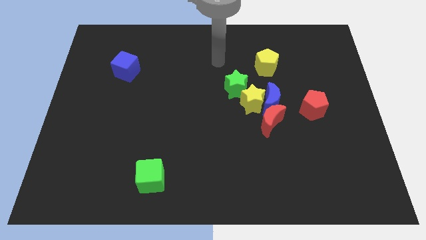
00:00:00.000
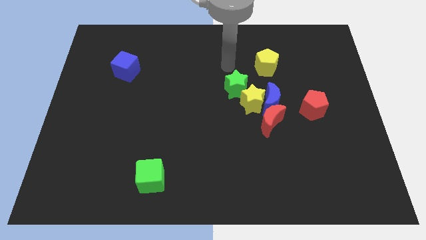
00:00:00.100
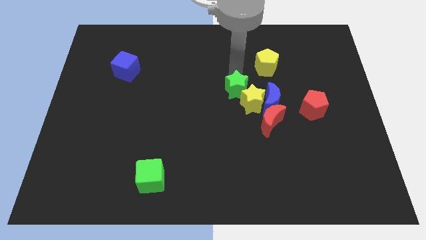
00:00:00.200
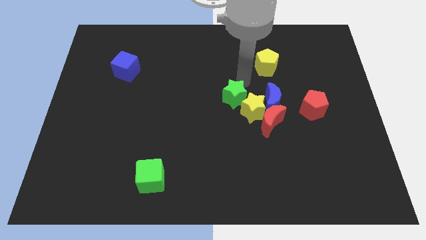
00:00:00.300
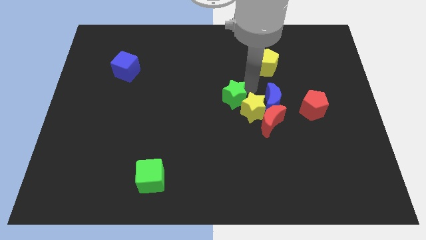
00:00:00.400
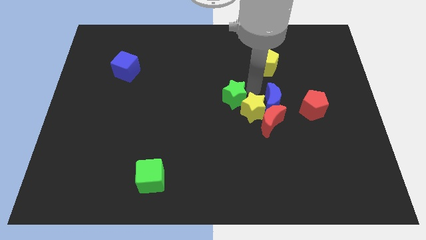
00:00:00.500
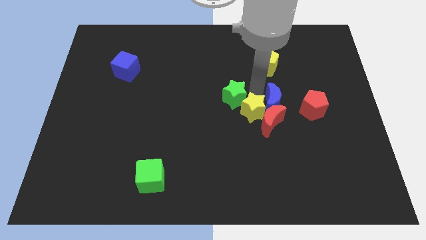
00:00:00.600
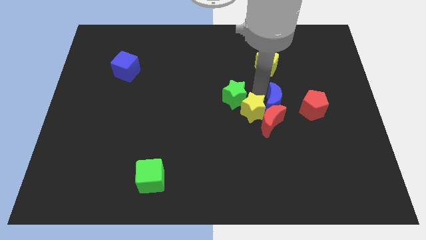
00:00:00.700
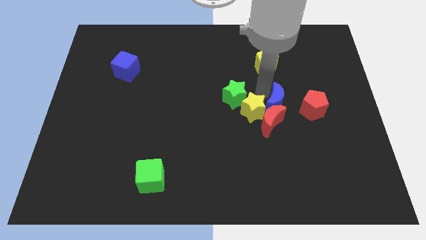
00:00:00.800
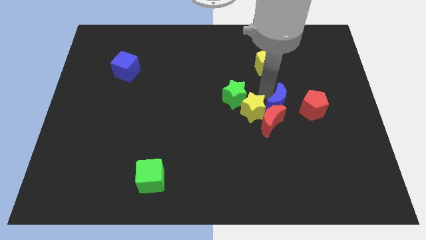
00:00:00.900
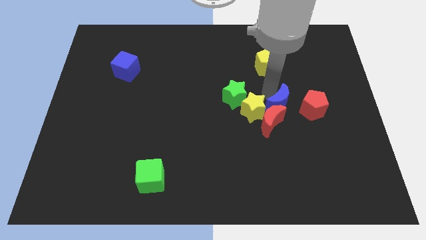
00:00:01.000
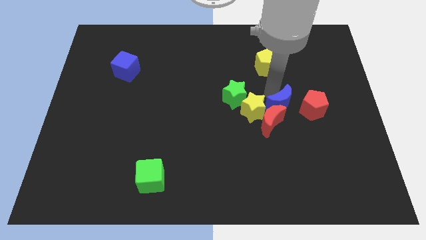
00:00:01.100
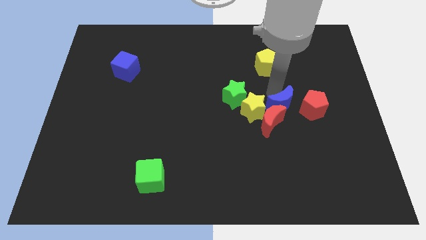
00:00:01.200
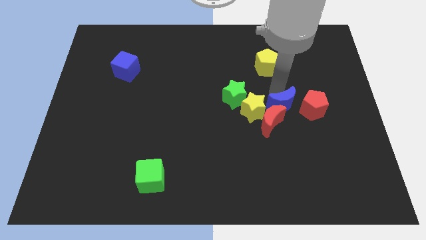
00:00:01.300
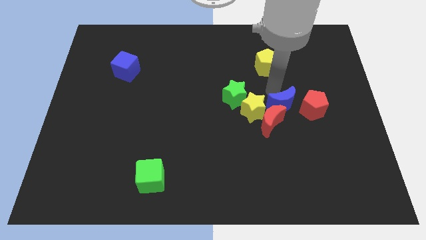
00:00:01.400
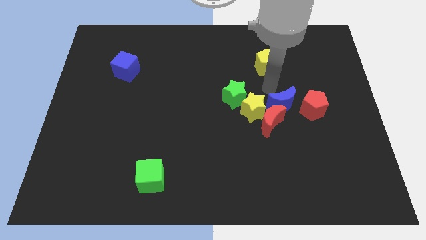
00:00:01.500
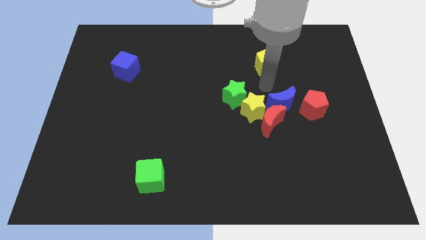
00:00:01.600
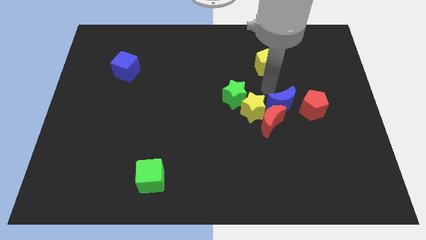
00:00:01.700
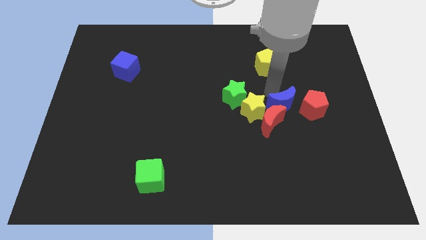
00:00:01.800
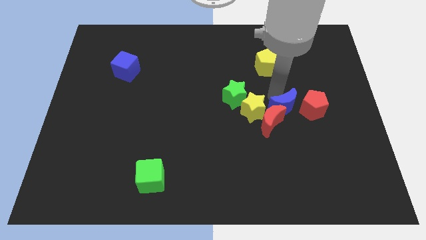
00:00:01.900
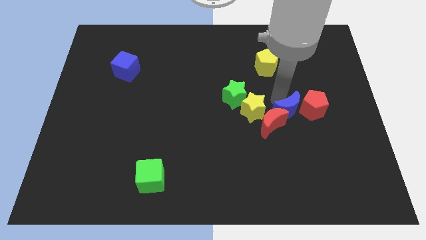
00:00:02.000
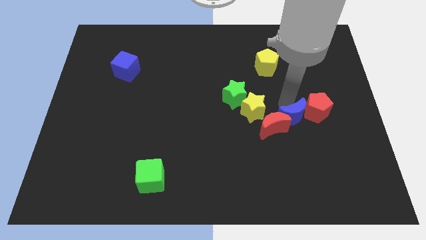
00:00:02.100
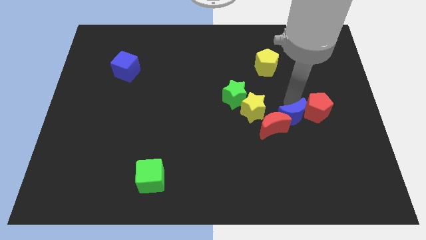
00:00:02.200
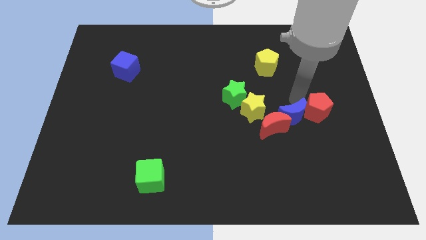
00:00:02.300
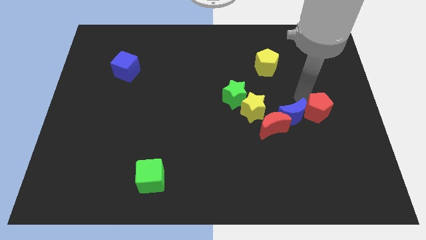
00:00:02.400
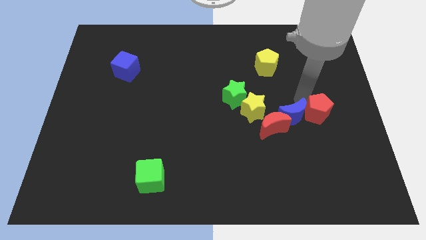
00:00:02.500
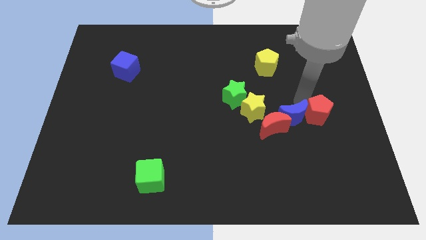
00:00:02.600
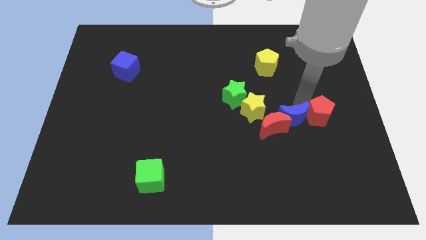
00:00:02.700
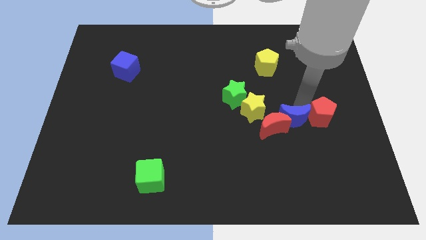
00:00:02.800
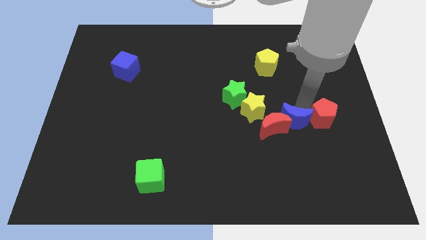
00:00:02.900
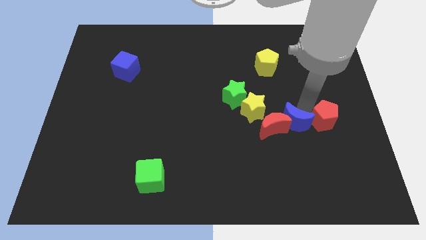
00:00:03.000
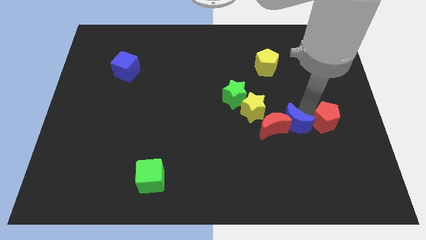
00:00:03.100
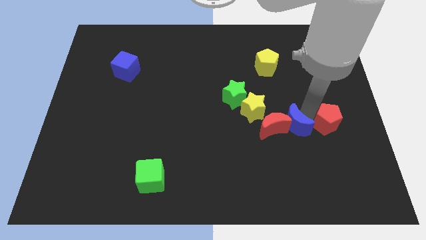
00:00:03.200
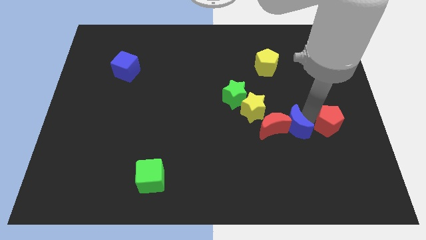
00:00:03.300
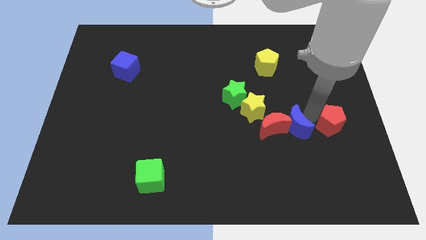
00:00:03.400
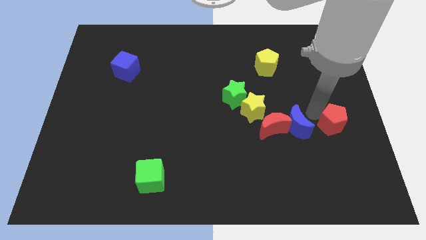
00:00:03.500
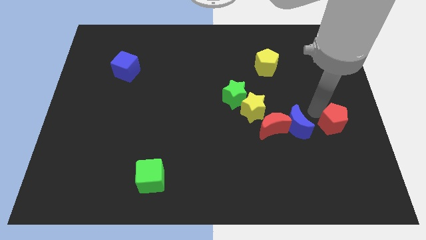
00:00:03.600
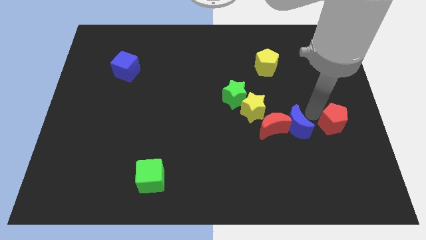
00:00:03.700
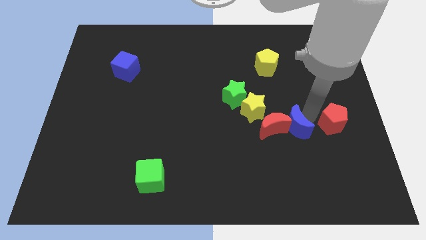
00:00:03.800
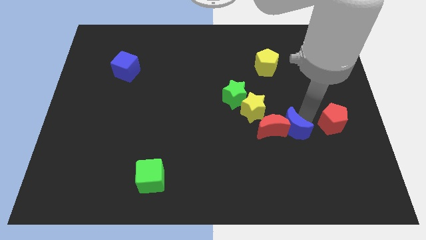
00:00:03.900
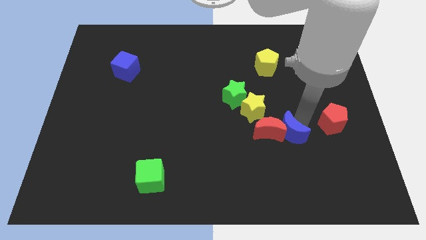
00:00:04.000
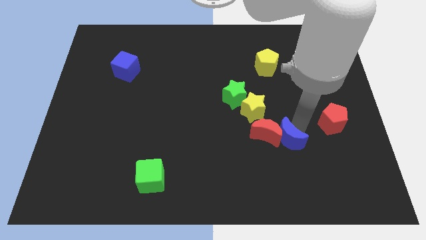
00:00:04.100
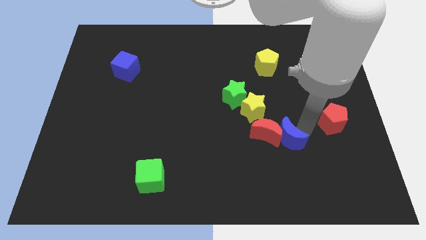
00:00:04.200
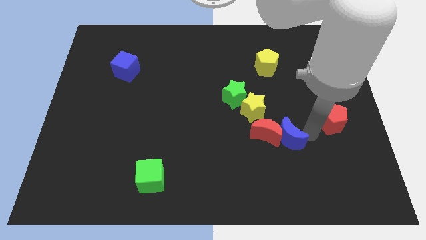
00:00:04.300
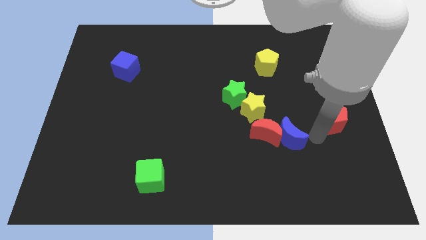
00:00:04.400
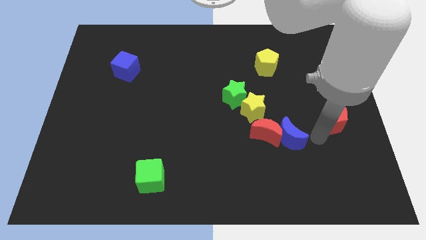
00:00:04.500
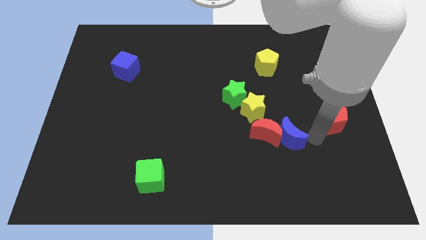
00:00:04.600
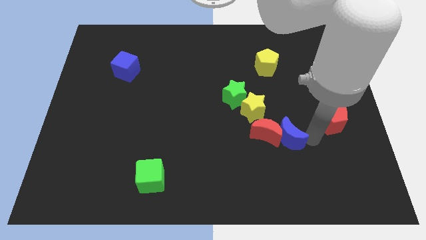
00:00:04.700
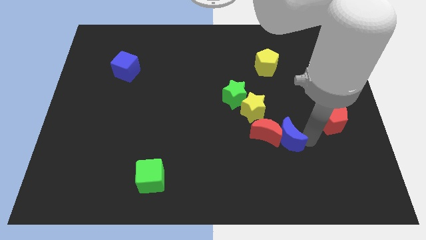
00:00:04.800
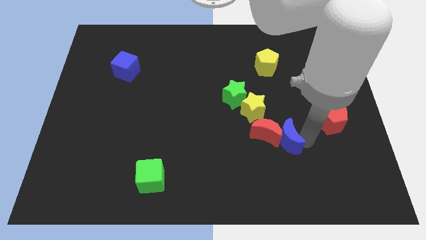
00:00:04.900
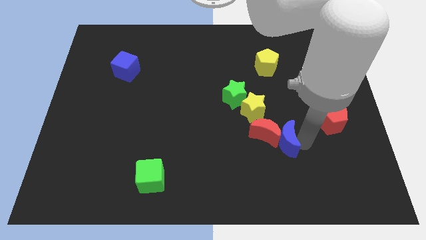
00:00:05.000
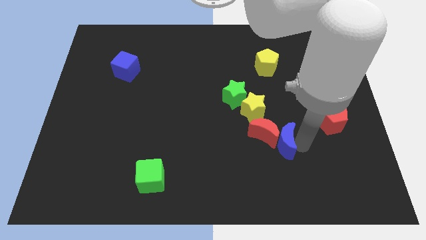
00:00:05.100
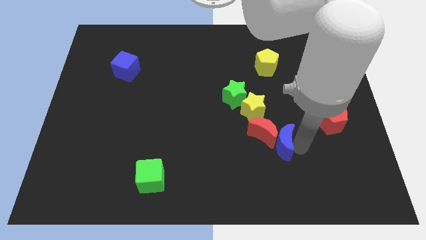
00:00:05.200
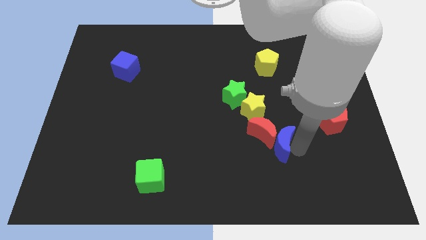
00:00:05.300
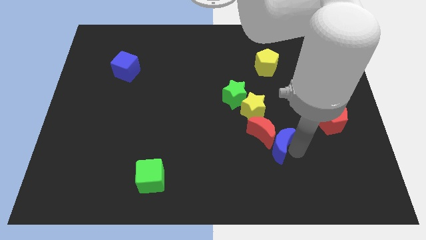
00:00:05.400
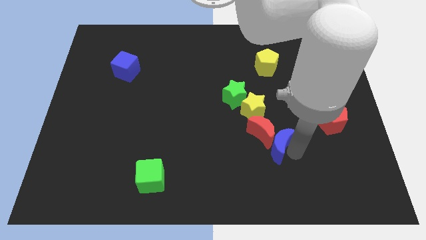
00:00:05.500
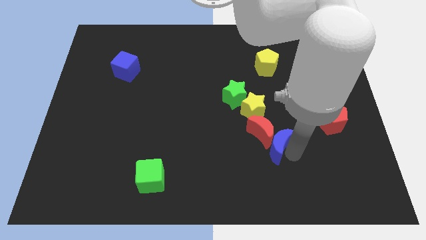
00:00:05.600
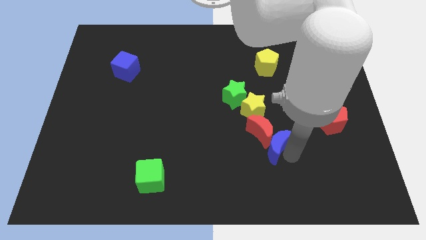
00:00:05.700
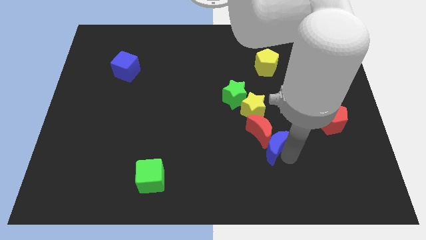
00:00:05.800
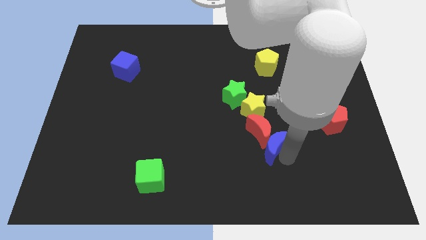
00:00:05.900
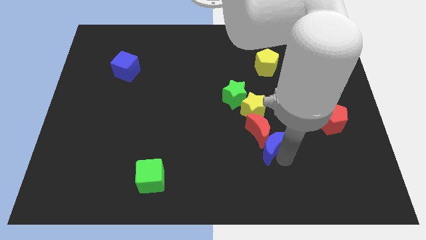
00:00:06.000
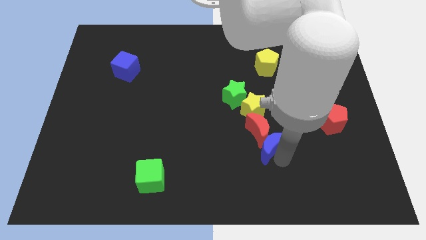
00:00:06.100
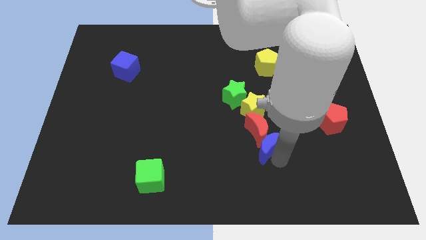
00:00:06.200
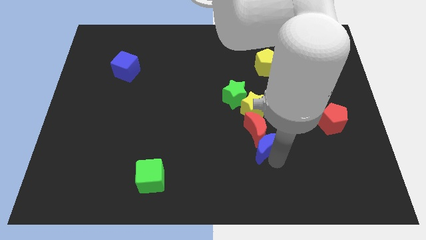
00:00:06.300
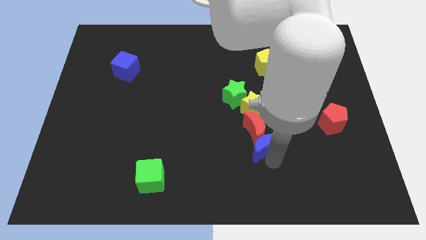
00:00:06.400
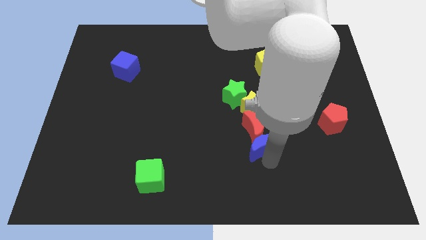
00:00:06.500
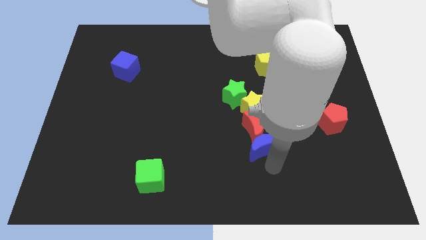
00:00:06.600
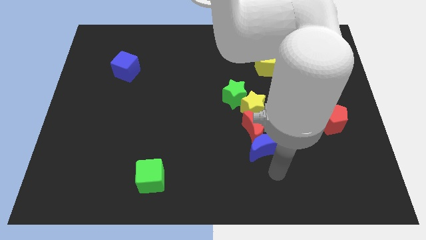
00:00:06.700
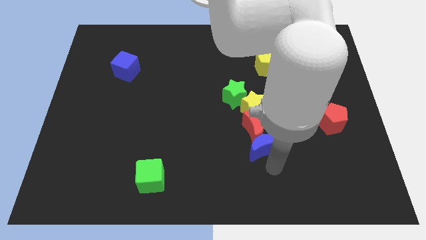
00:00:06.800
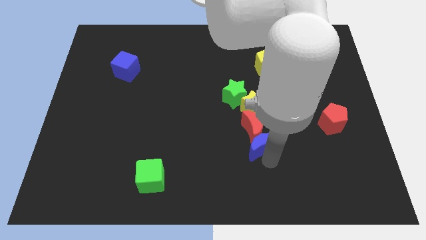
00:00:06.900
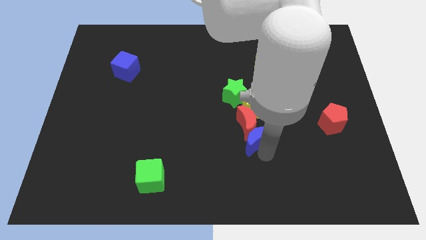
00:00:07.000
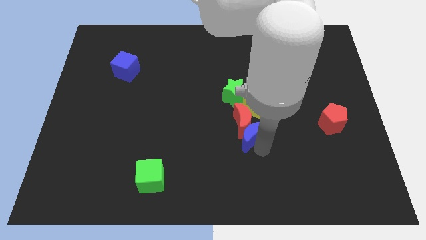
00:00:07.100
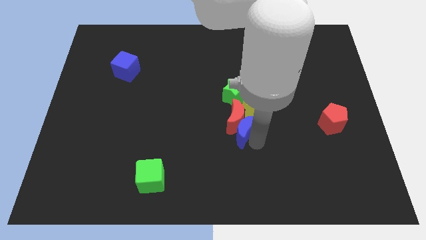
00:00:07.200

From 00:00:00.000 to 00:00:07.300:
push the blue moon to the middle
